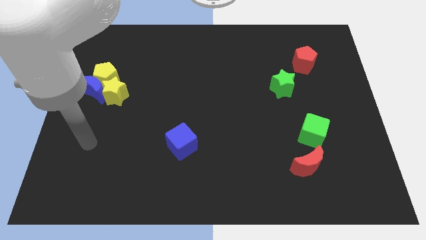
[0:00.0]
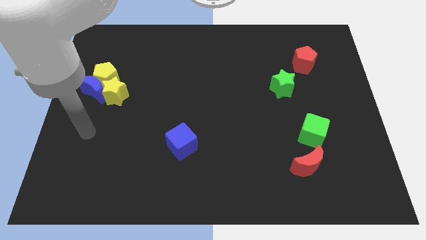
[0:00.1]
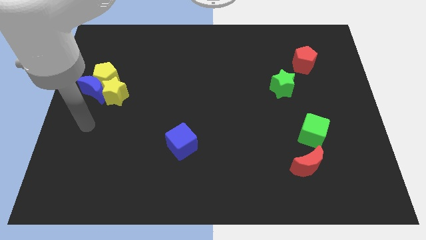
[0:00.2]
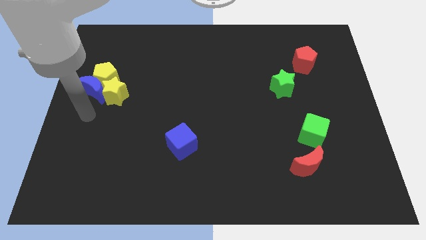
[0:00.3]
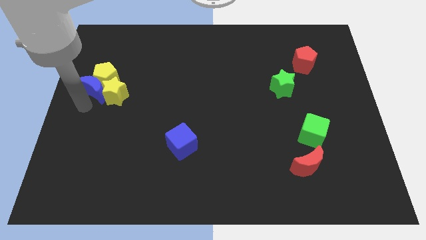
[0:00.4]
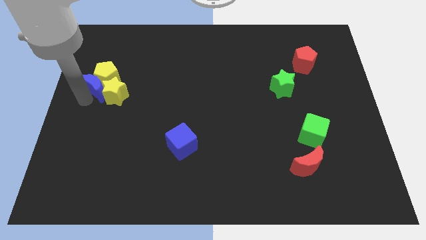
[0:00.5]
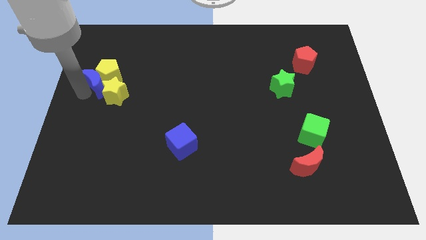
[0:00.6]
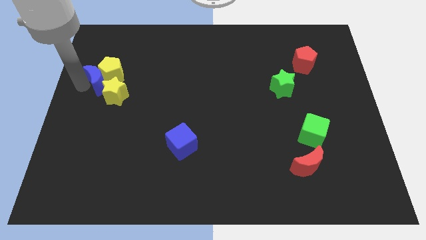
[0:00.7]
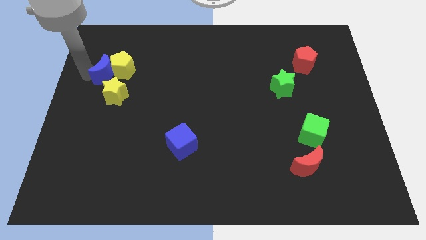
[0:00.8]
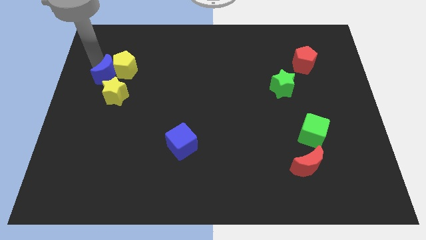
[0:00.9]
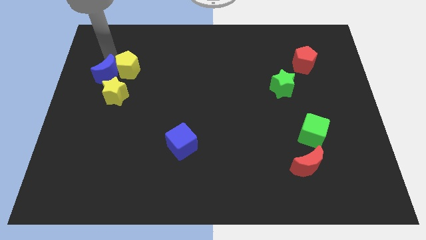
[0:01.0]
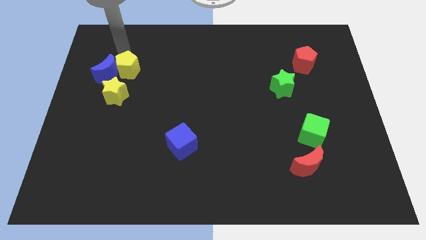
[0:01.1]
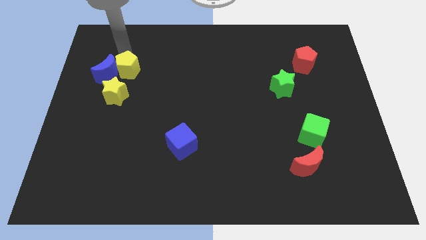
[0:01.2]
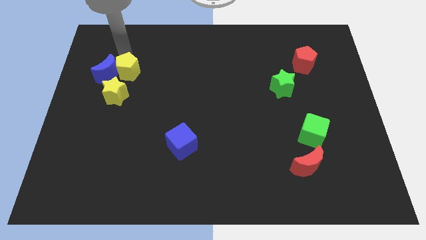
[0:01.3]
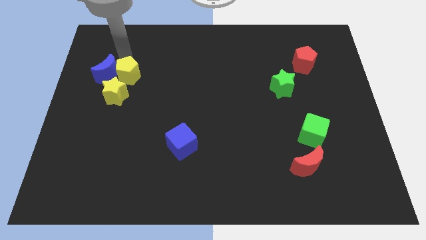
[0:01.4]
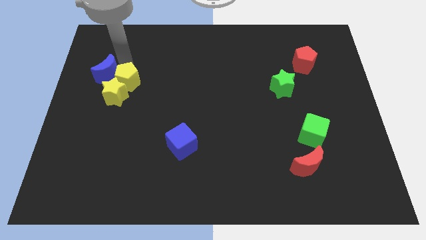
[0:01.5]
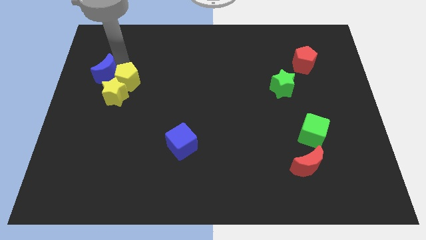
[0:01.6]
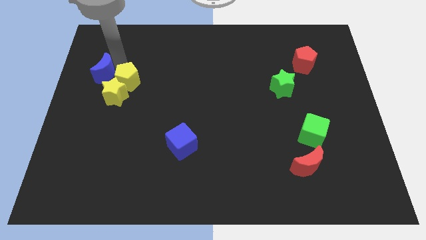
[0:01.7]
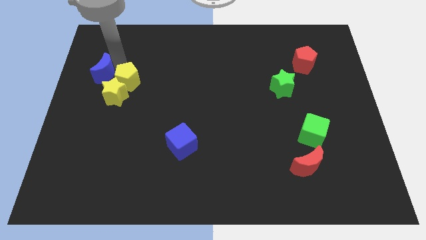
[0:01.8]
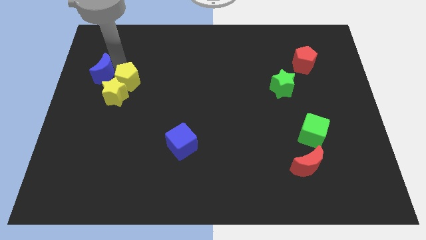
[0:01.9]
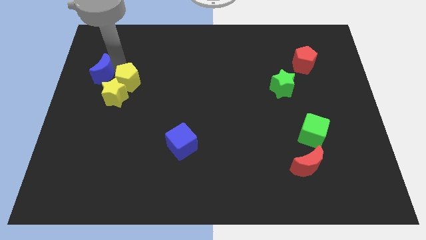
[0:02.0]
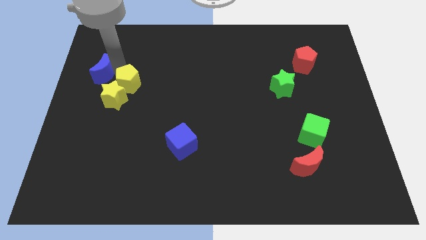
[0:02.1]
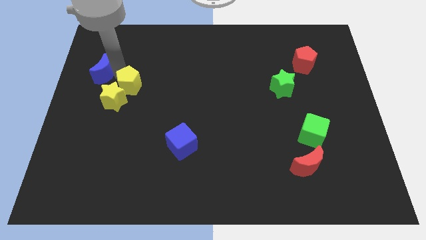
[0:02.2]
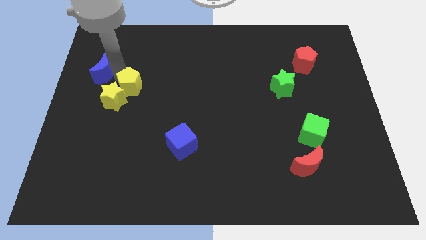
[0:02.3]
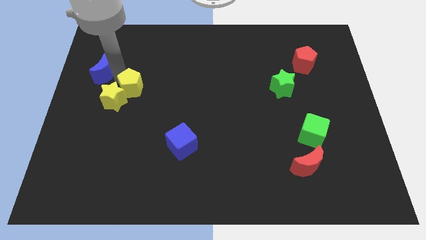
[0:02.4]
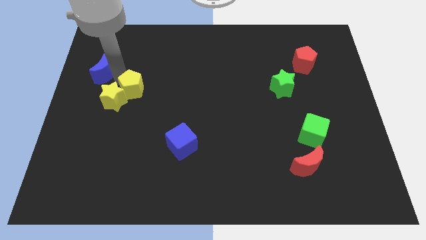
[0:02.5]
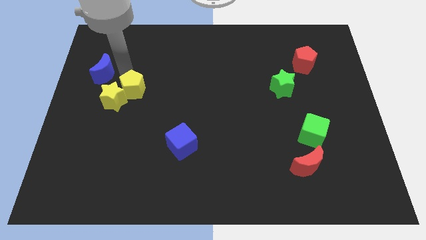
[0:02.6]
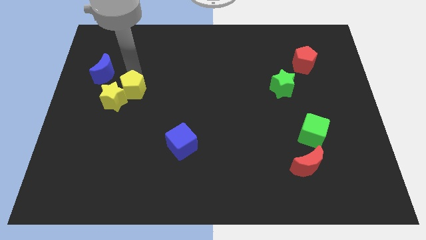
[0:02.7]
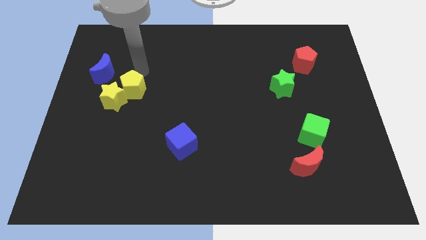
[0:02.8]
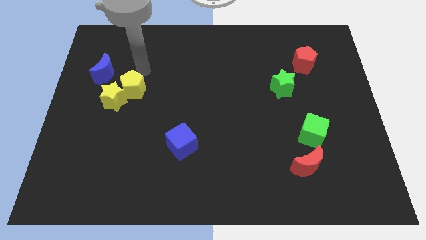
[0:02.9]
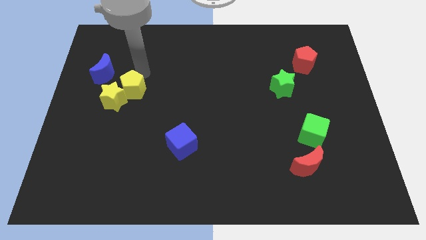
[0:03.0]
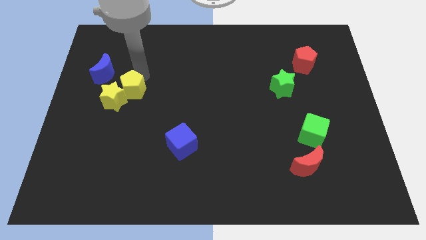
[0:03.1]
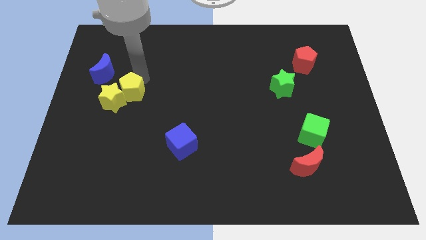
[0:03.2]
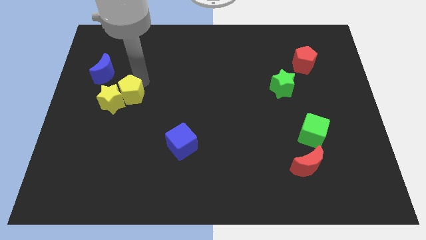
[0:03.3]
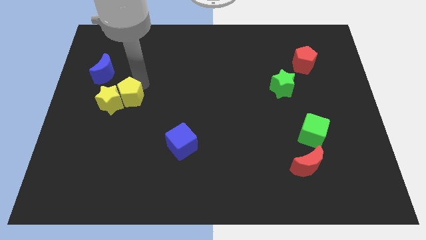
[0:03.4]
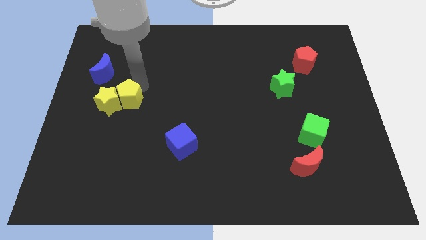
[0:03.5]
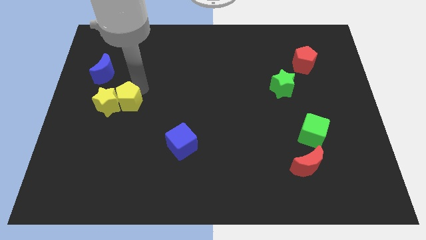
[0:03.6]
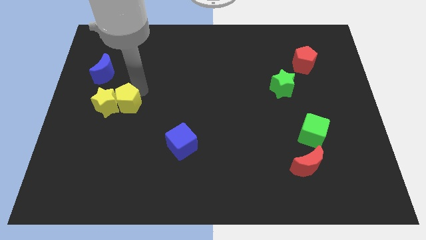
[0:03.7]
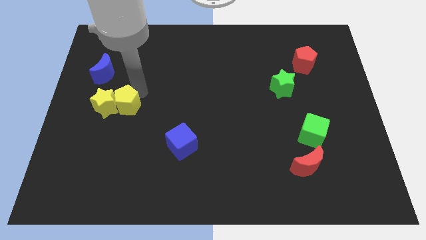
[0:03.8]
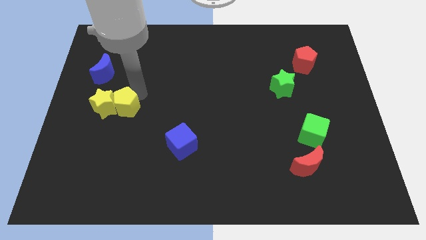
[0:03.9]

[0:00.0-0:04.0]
slide the yellow pentagon downwards a bit

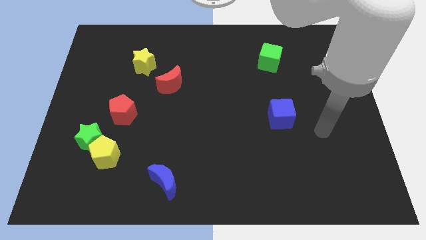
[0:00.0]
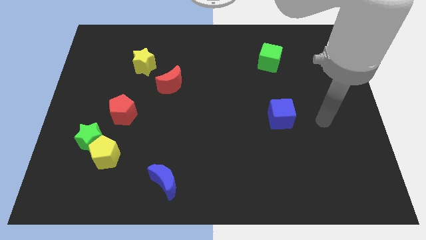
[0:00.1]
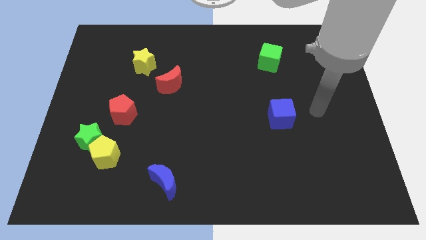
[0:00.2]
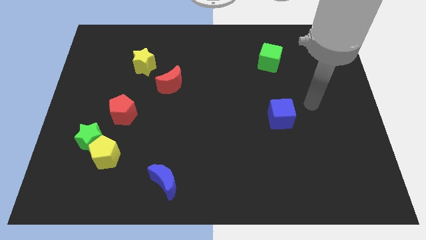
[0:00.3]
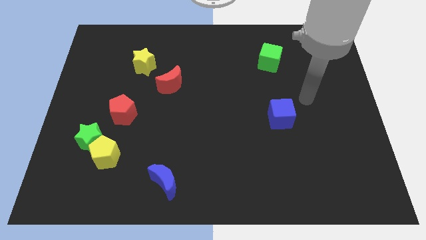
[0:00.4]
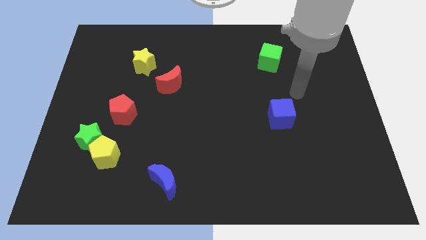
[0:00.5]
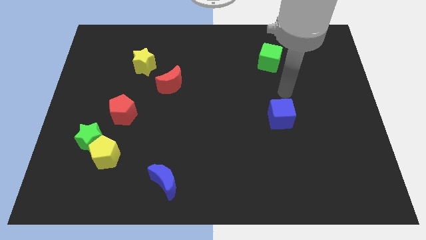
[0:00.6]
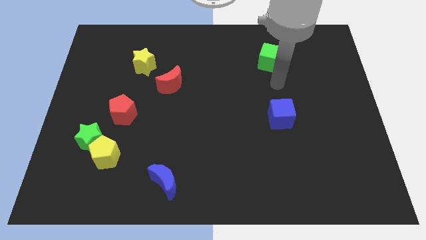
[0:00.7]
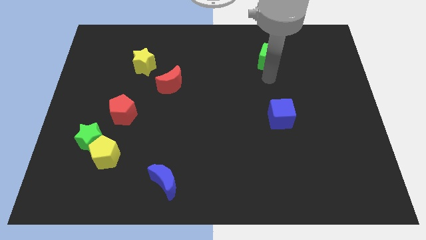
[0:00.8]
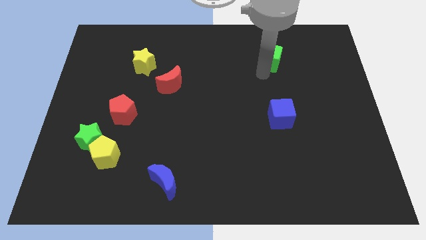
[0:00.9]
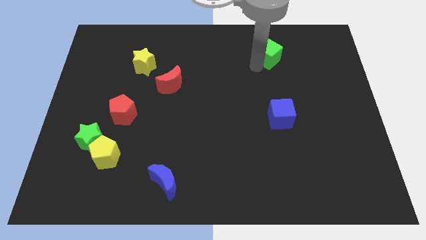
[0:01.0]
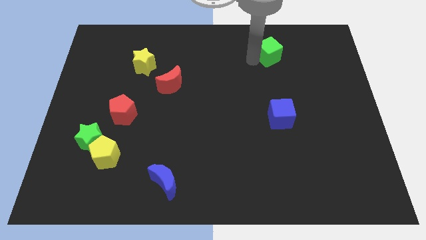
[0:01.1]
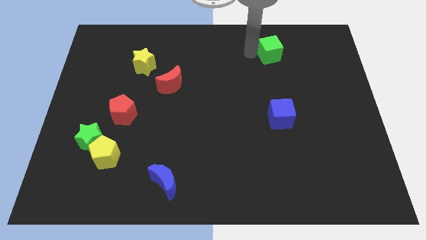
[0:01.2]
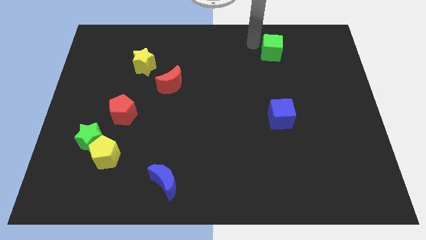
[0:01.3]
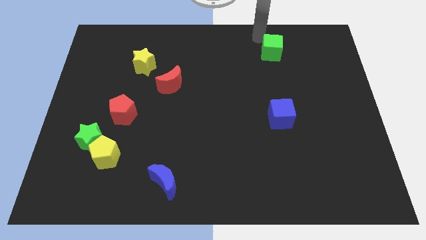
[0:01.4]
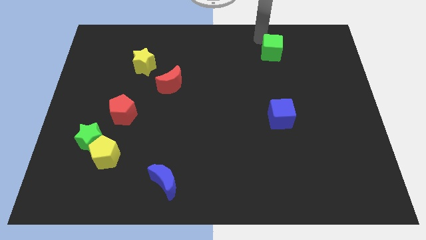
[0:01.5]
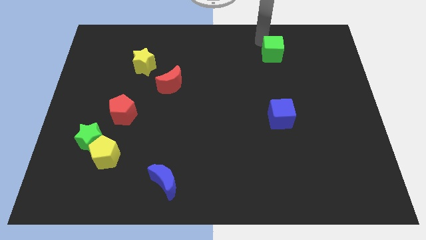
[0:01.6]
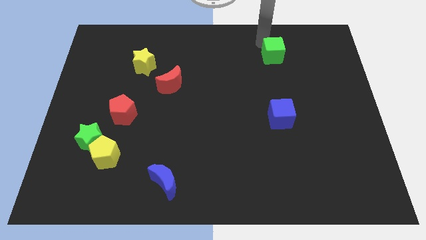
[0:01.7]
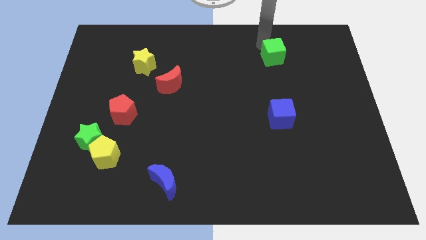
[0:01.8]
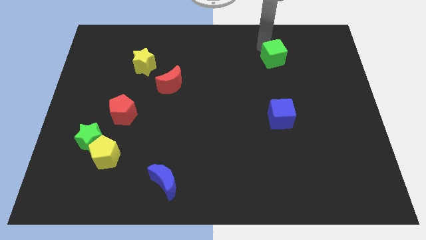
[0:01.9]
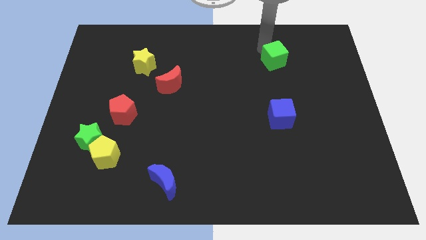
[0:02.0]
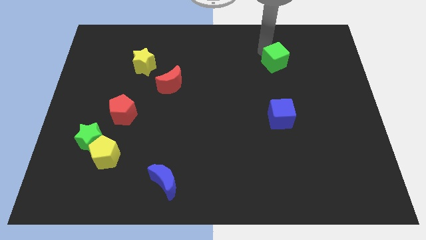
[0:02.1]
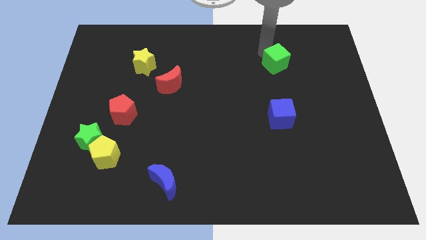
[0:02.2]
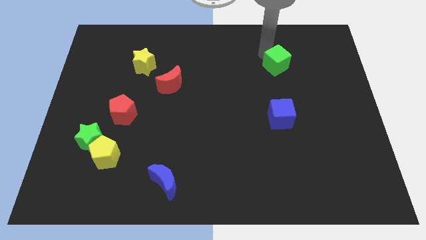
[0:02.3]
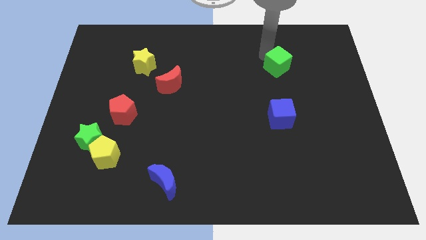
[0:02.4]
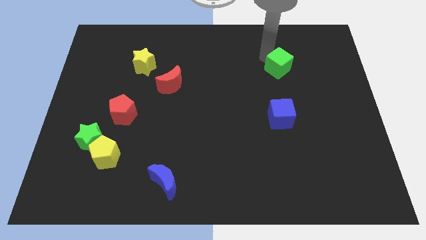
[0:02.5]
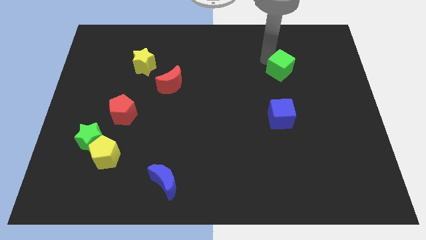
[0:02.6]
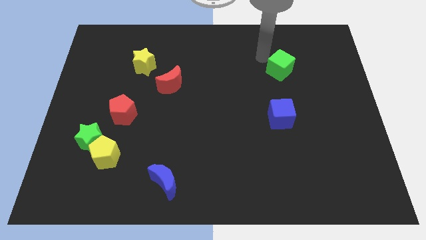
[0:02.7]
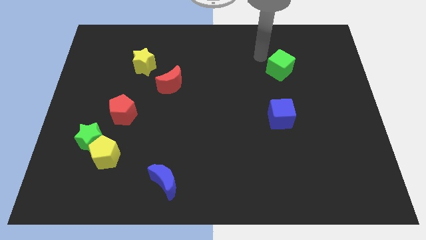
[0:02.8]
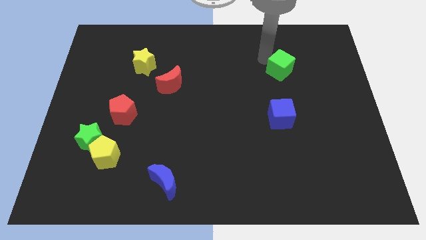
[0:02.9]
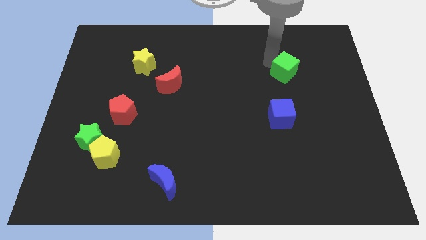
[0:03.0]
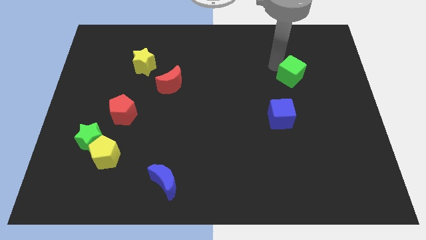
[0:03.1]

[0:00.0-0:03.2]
move the green cube down and right slightly

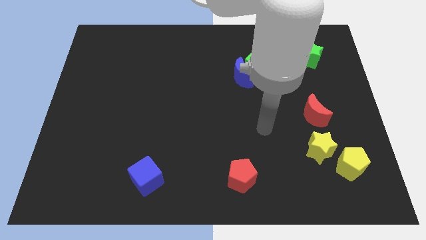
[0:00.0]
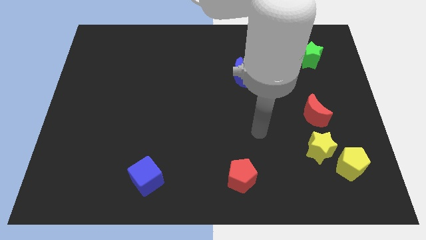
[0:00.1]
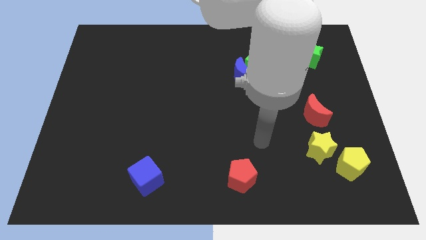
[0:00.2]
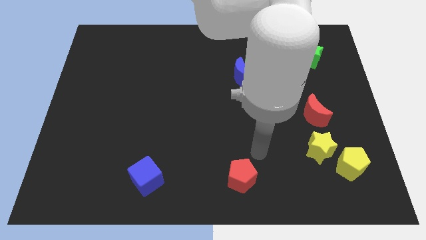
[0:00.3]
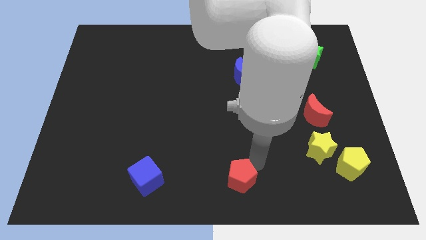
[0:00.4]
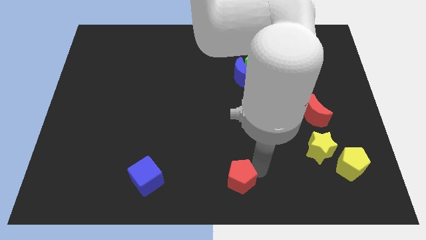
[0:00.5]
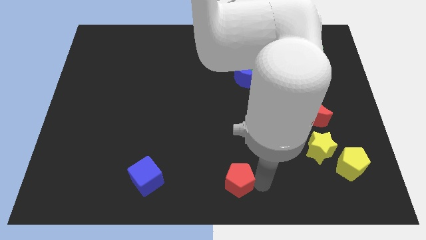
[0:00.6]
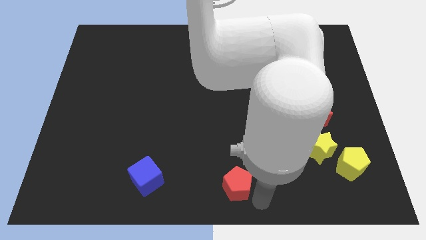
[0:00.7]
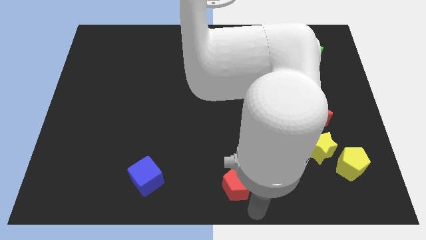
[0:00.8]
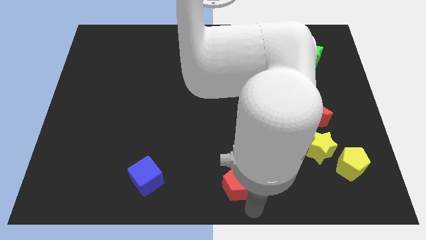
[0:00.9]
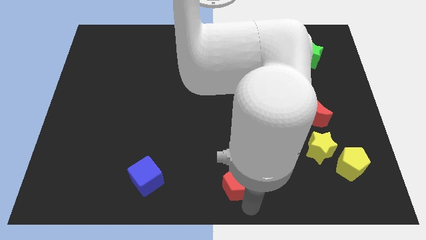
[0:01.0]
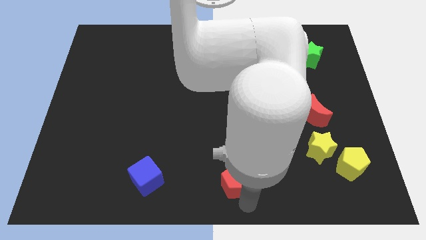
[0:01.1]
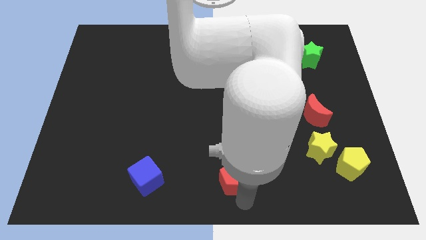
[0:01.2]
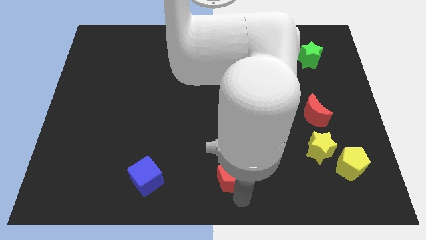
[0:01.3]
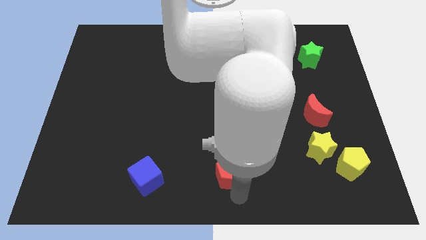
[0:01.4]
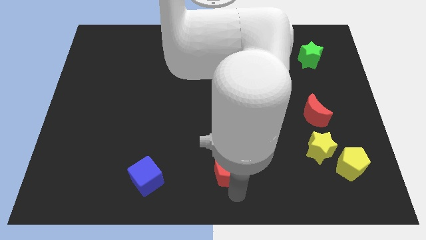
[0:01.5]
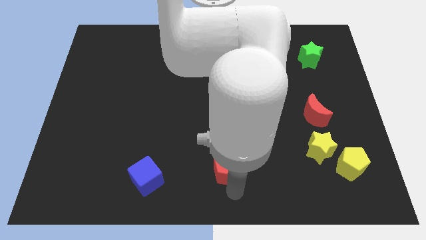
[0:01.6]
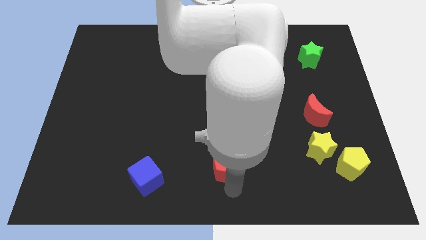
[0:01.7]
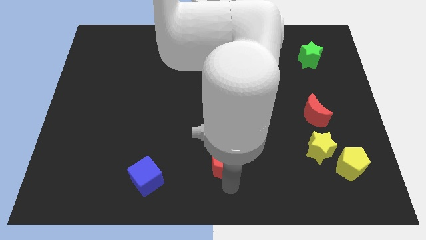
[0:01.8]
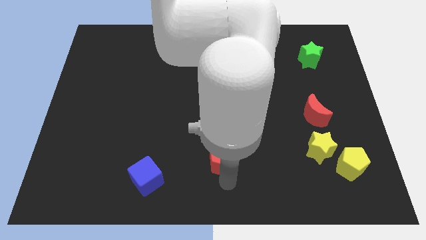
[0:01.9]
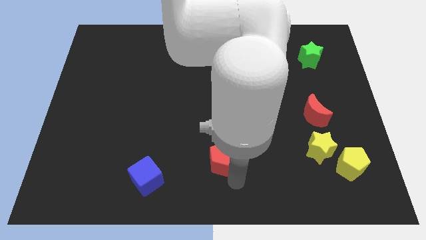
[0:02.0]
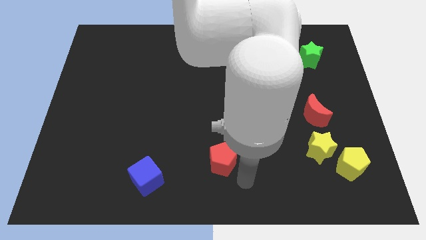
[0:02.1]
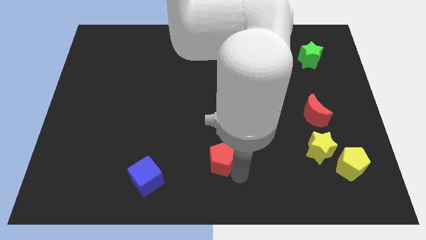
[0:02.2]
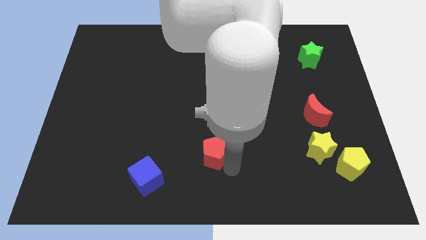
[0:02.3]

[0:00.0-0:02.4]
slightly move the red pentagon diagonally upwards and left
